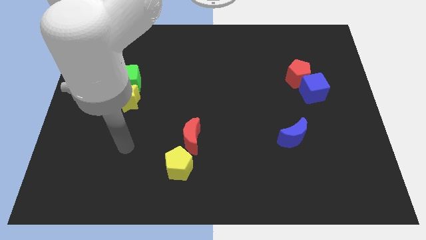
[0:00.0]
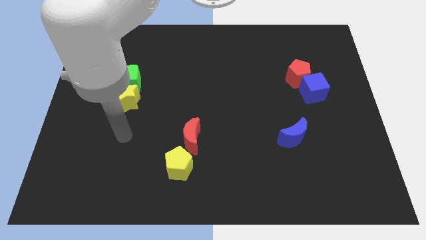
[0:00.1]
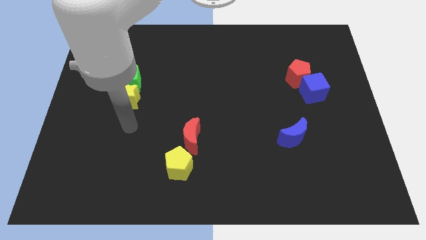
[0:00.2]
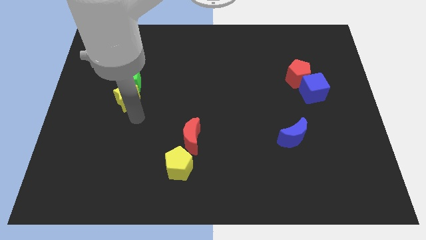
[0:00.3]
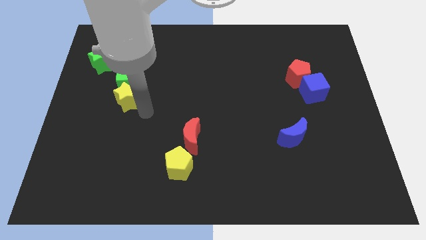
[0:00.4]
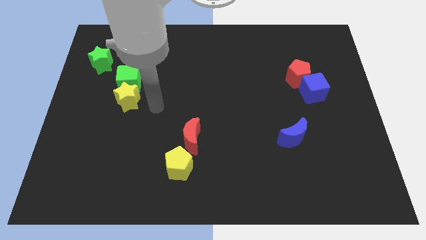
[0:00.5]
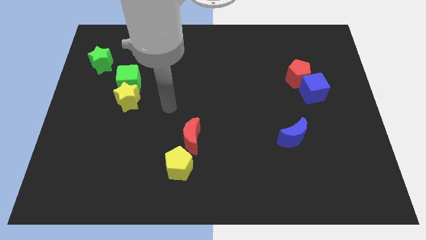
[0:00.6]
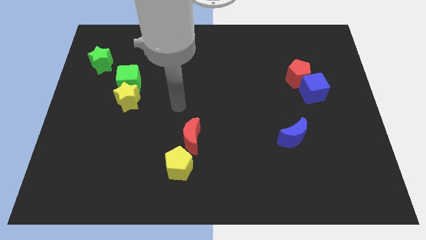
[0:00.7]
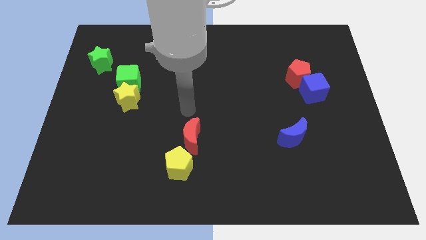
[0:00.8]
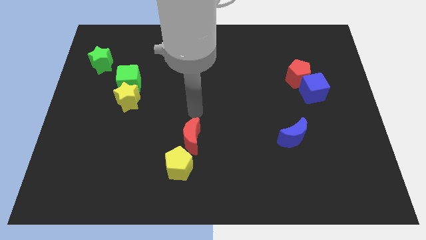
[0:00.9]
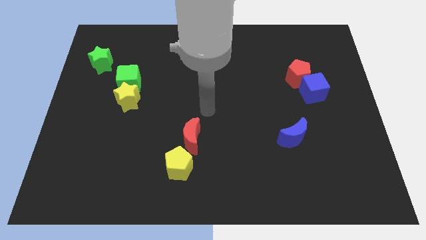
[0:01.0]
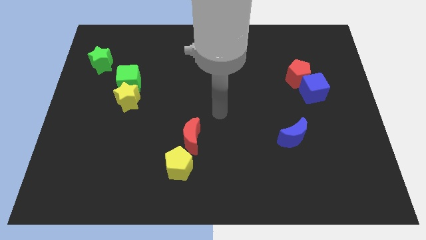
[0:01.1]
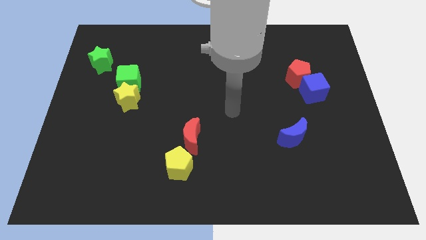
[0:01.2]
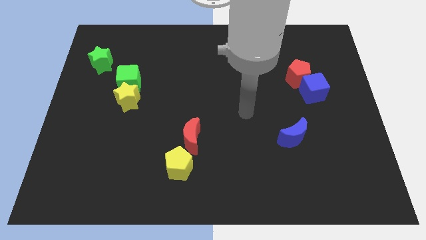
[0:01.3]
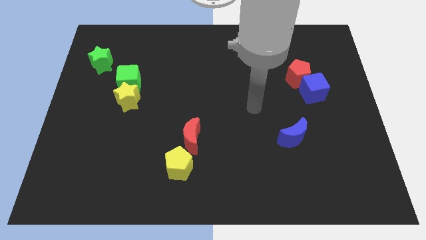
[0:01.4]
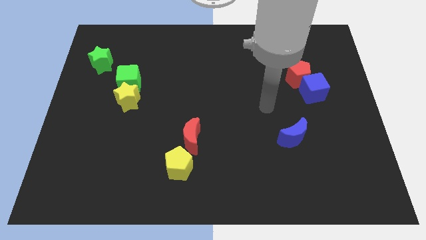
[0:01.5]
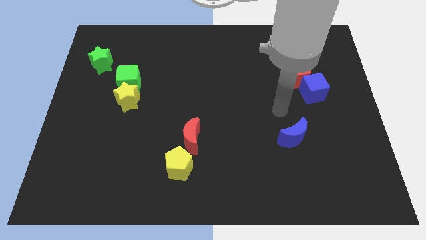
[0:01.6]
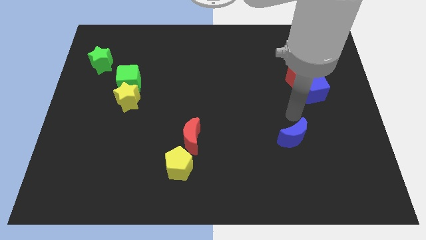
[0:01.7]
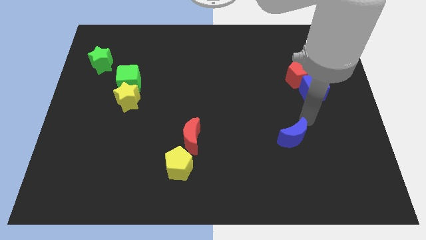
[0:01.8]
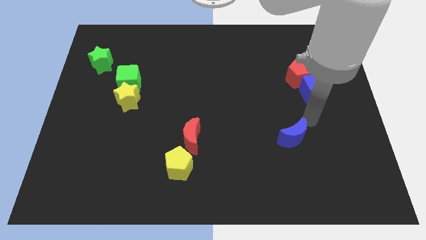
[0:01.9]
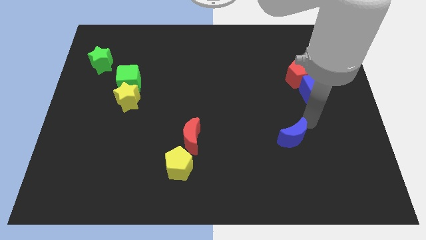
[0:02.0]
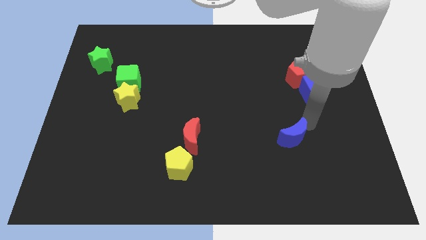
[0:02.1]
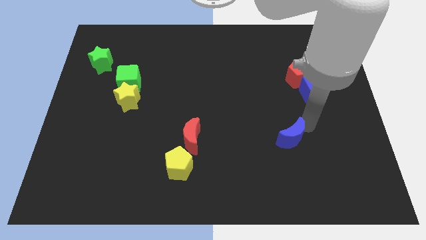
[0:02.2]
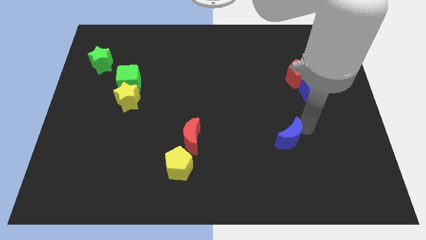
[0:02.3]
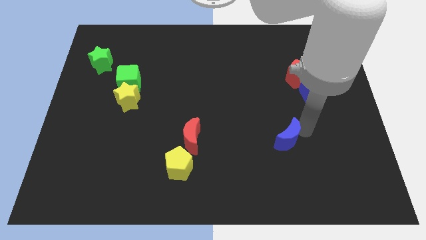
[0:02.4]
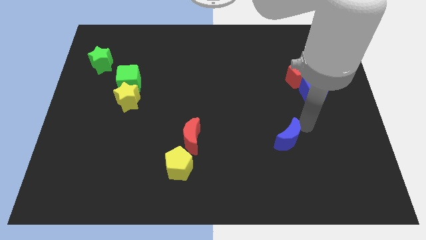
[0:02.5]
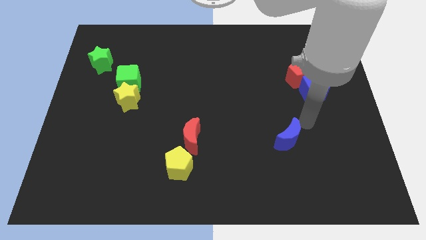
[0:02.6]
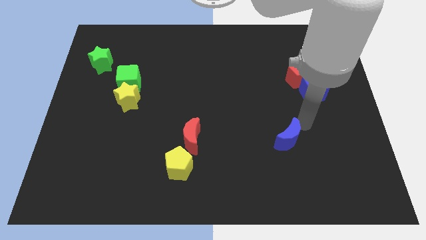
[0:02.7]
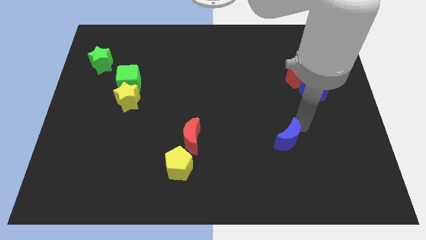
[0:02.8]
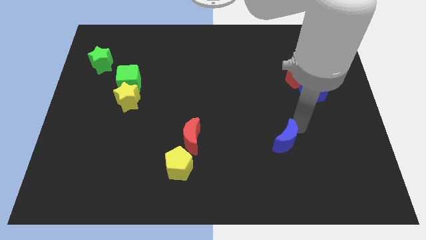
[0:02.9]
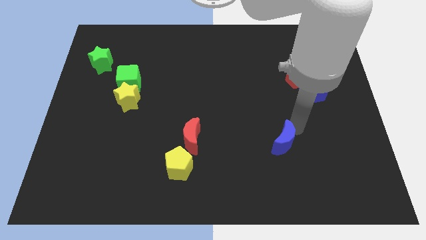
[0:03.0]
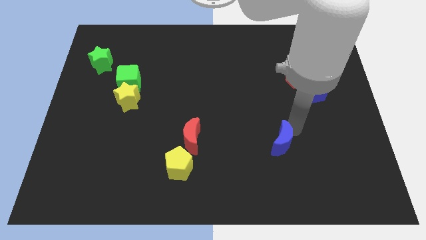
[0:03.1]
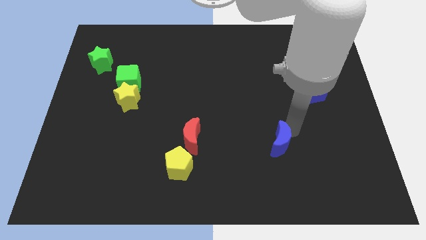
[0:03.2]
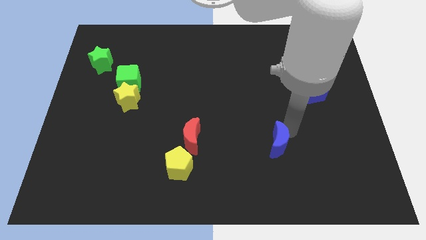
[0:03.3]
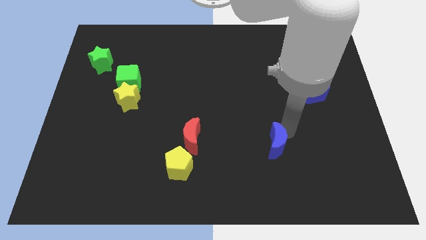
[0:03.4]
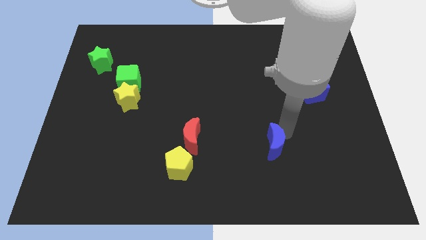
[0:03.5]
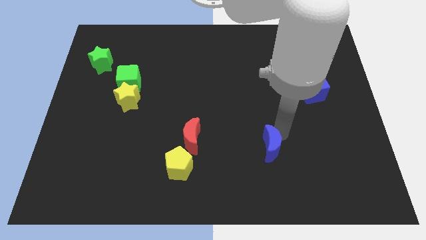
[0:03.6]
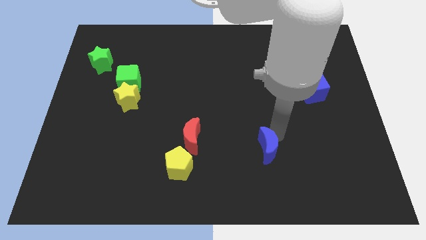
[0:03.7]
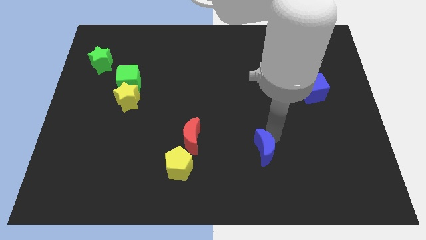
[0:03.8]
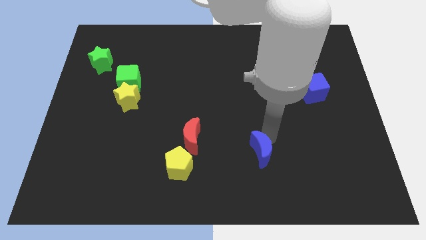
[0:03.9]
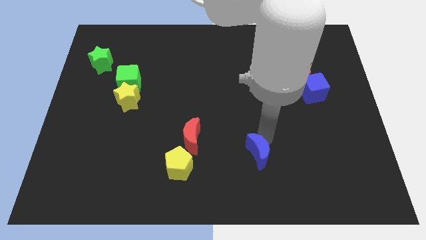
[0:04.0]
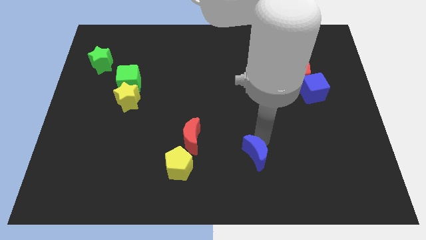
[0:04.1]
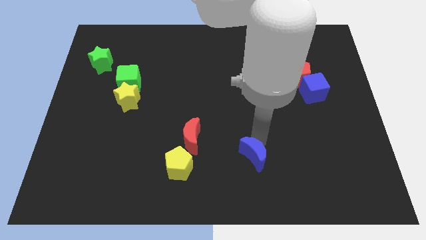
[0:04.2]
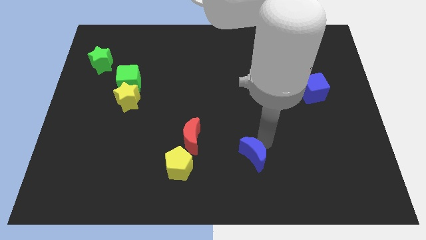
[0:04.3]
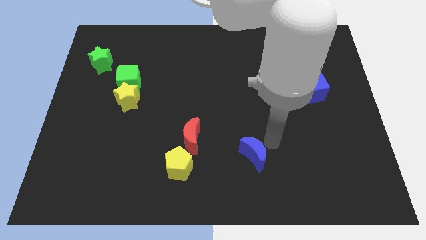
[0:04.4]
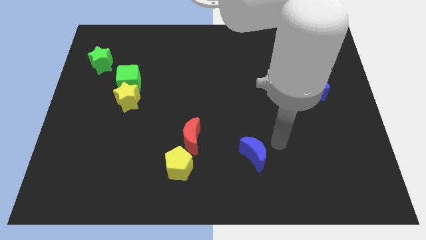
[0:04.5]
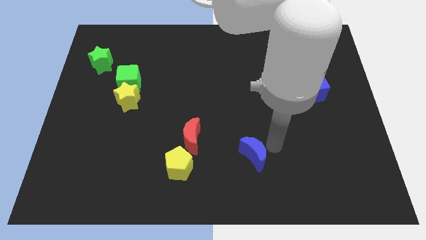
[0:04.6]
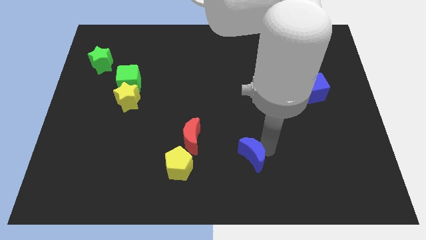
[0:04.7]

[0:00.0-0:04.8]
push the blue moon to the right side of the yellow pentagon

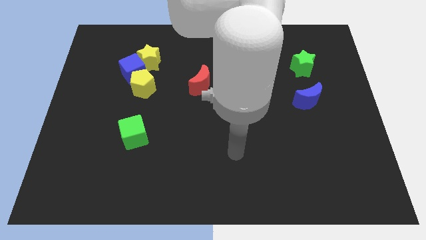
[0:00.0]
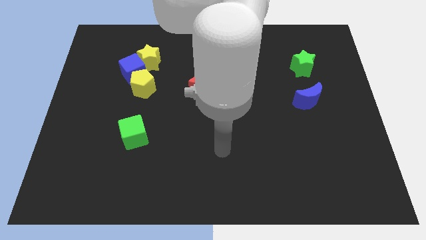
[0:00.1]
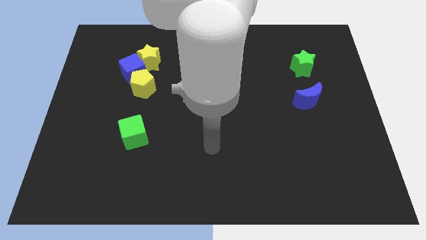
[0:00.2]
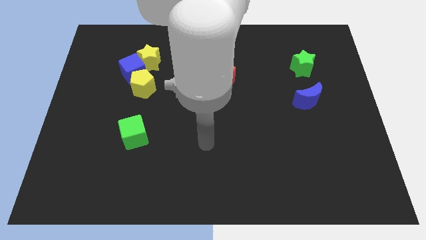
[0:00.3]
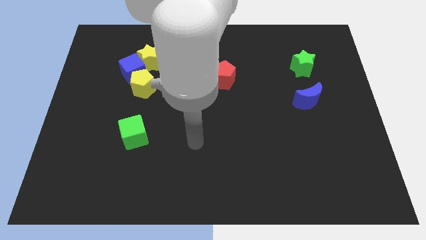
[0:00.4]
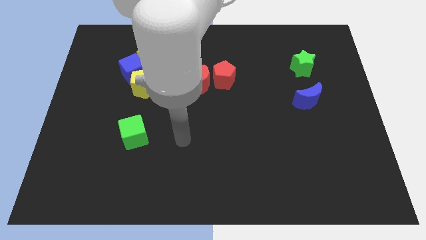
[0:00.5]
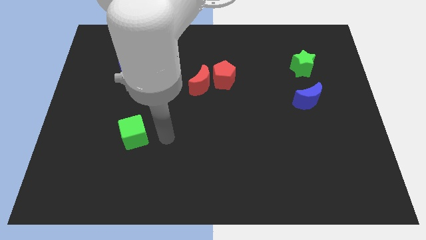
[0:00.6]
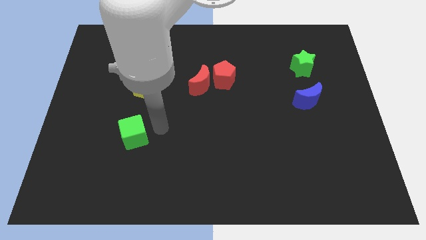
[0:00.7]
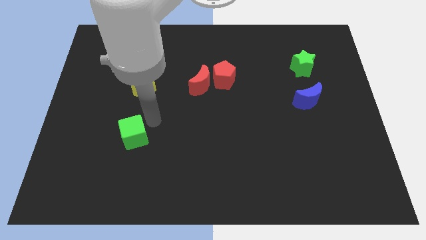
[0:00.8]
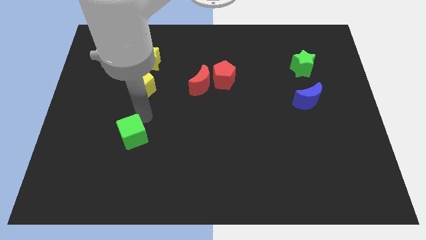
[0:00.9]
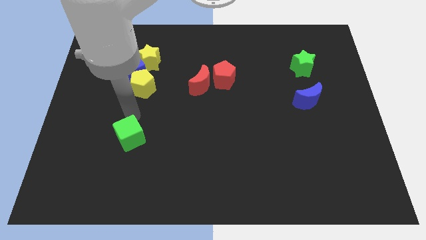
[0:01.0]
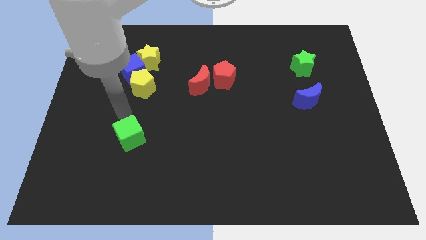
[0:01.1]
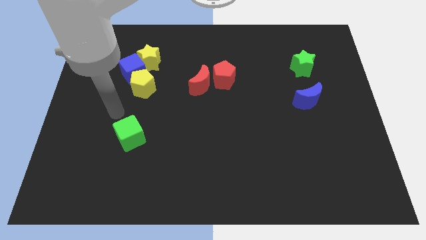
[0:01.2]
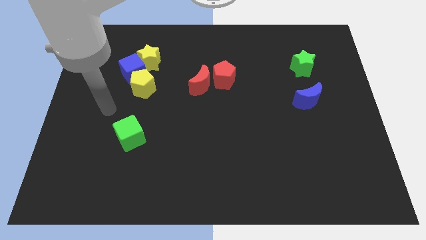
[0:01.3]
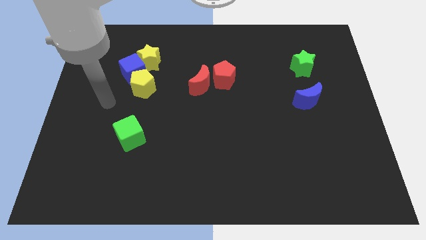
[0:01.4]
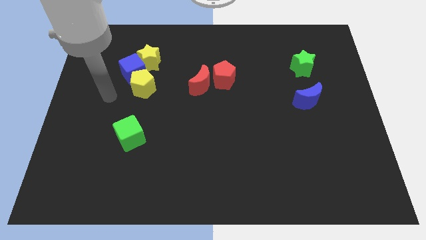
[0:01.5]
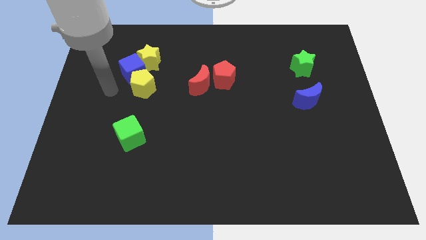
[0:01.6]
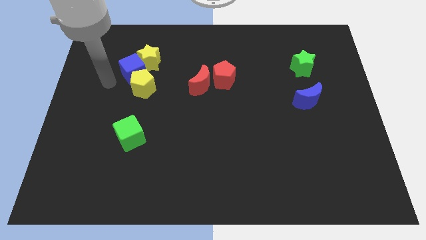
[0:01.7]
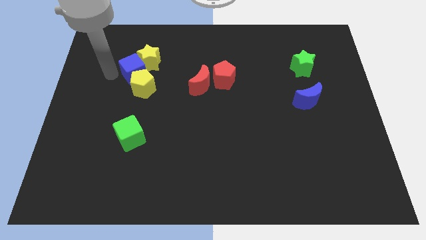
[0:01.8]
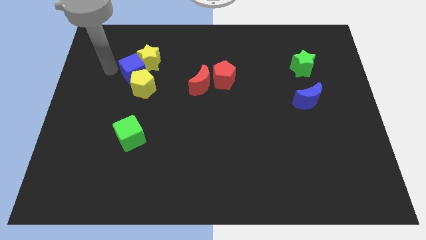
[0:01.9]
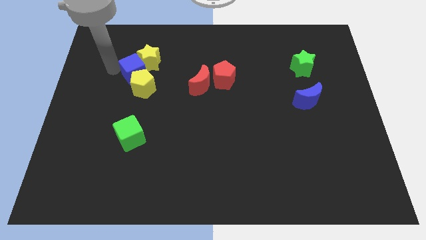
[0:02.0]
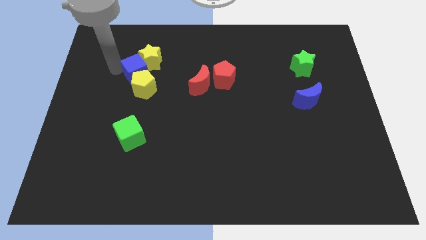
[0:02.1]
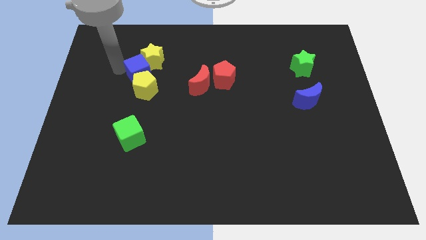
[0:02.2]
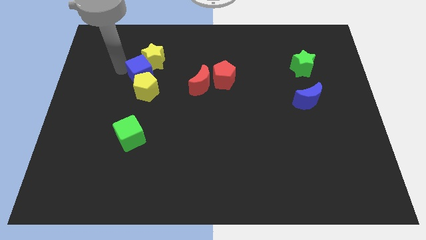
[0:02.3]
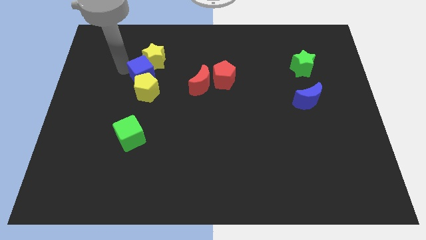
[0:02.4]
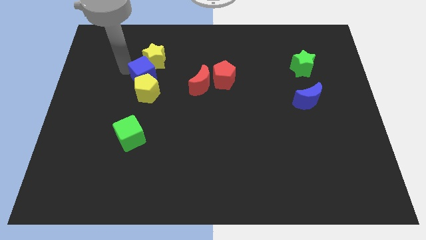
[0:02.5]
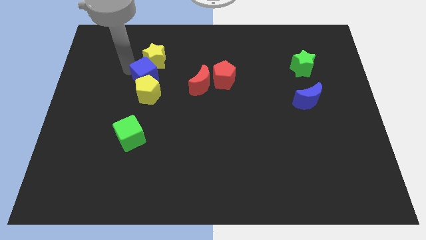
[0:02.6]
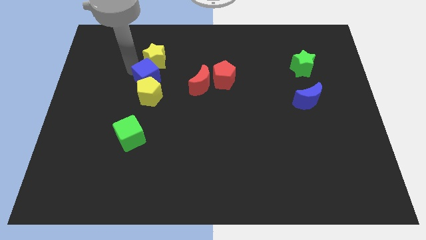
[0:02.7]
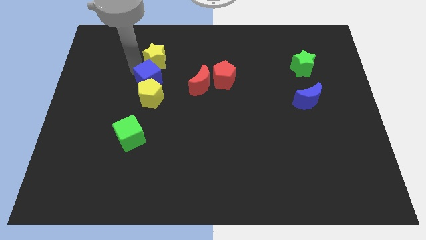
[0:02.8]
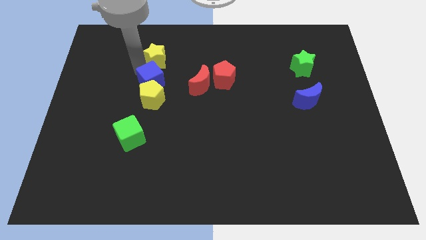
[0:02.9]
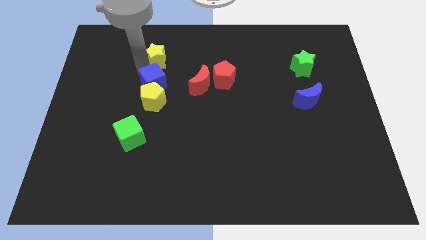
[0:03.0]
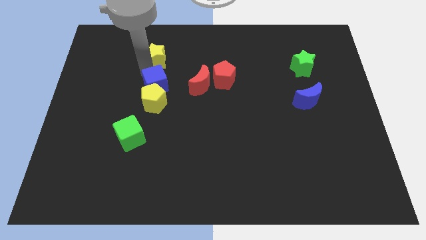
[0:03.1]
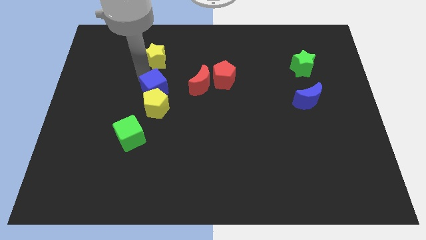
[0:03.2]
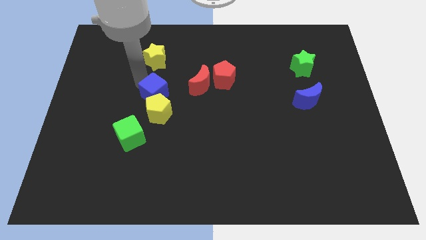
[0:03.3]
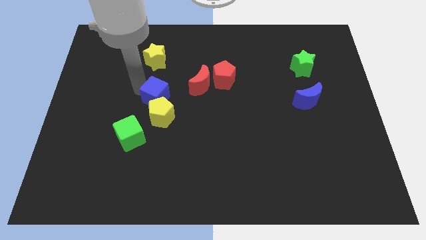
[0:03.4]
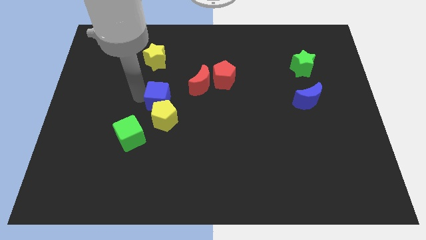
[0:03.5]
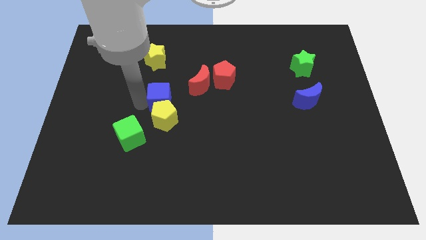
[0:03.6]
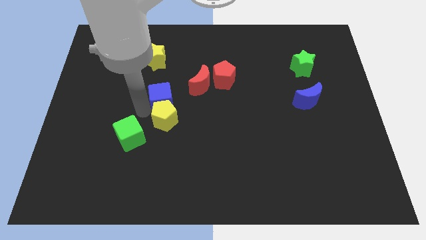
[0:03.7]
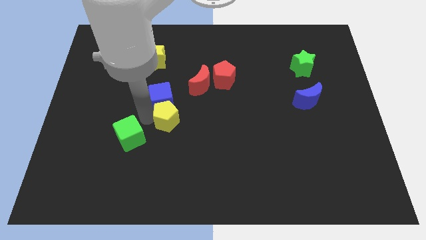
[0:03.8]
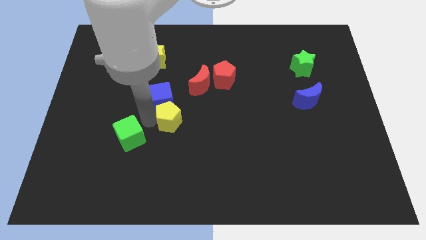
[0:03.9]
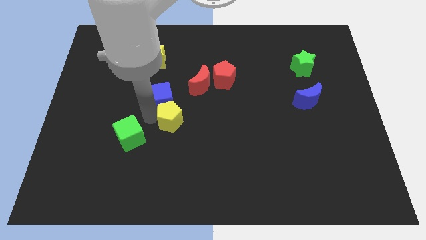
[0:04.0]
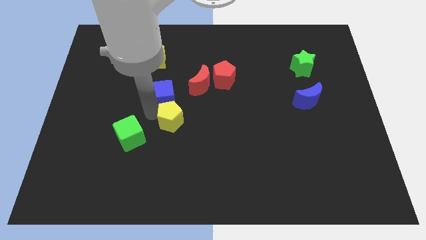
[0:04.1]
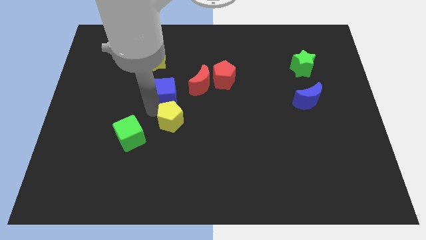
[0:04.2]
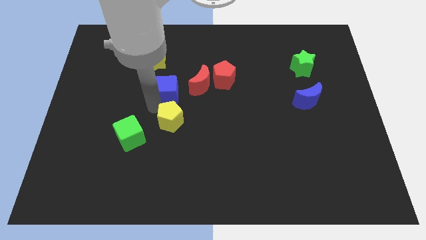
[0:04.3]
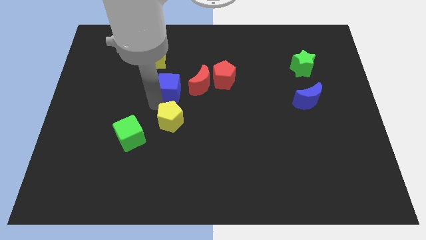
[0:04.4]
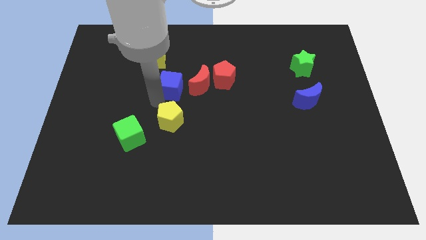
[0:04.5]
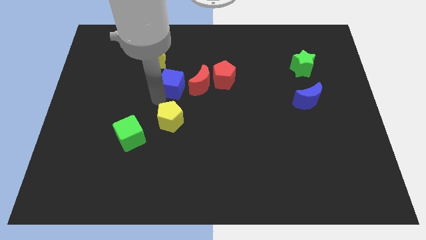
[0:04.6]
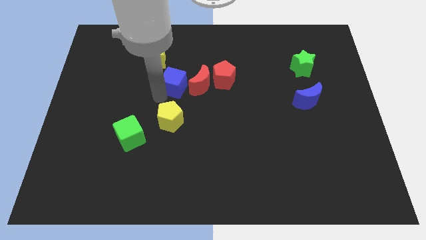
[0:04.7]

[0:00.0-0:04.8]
move the blue cube to the top left side of the red moon
